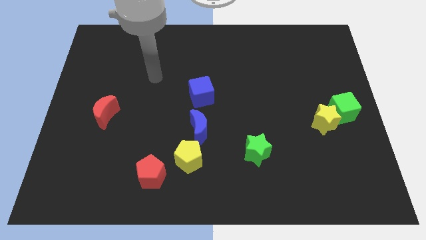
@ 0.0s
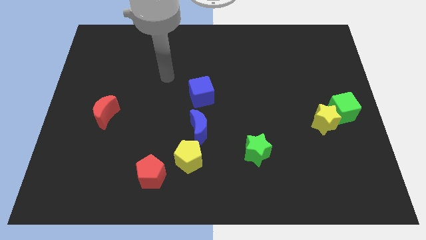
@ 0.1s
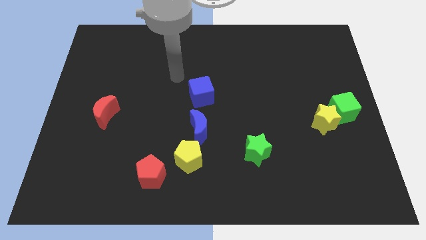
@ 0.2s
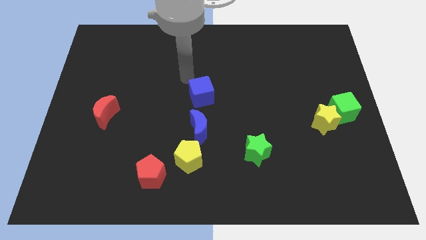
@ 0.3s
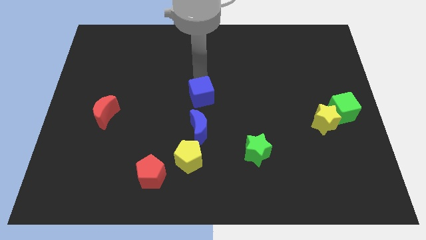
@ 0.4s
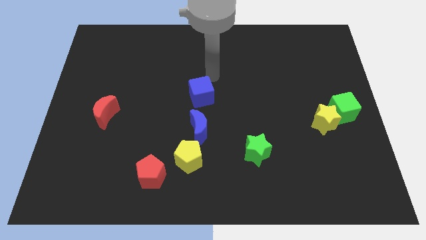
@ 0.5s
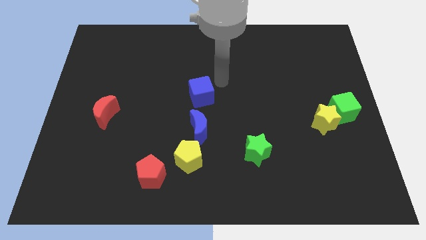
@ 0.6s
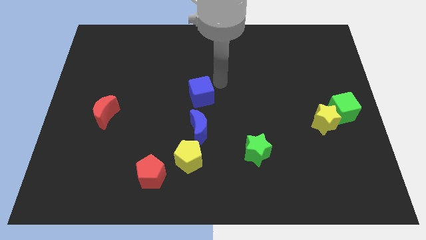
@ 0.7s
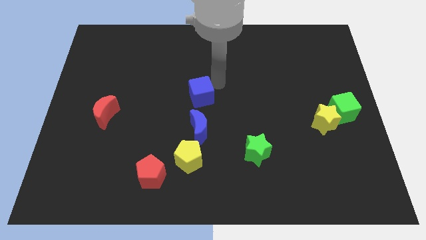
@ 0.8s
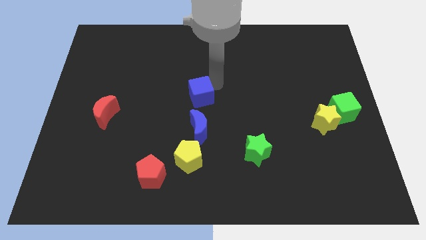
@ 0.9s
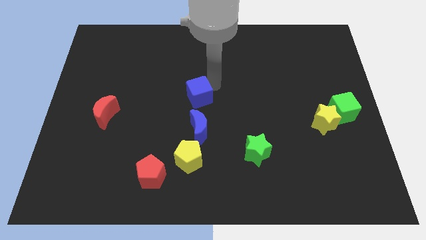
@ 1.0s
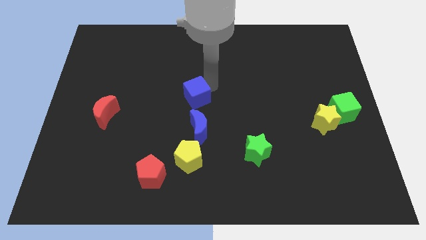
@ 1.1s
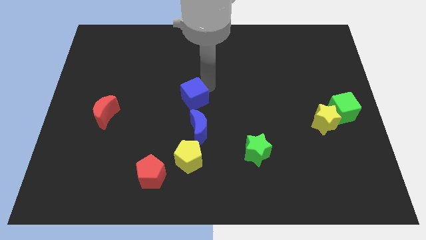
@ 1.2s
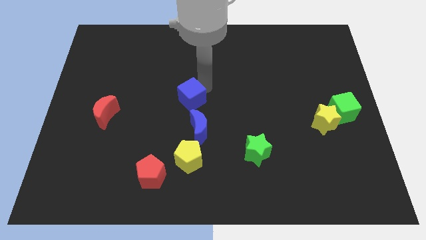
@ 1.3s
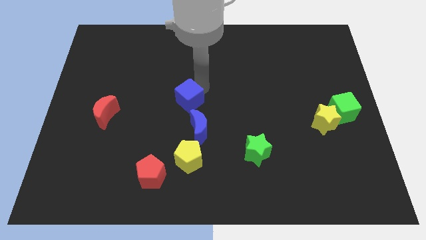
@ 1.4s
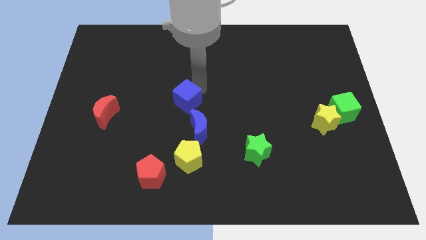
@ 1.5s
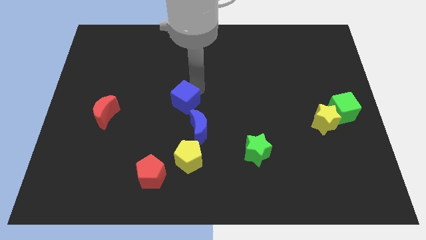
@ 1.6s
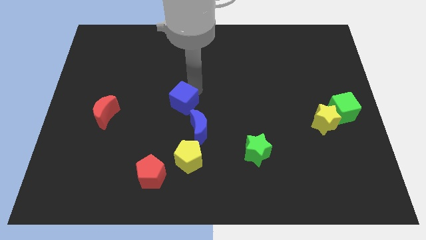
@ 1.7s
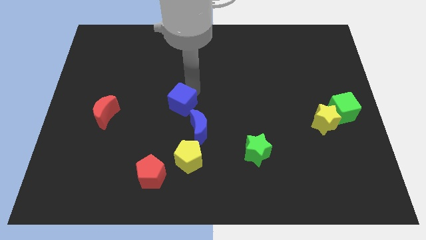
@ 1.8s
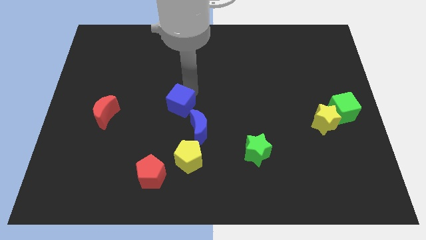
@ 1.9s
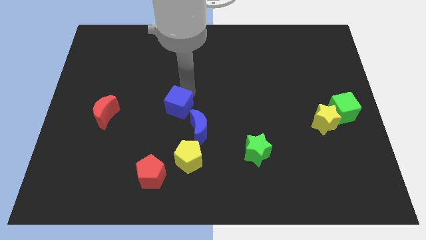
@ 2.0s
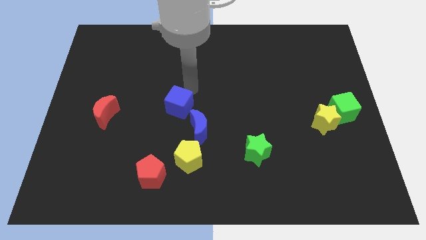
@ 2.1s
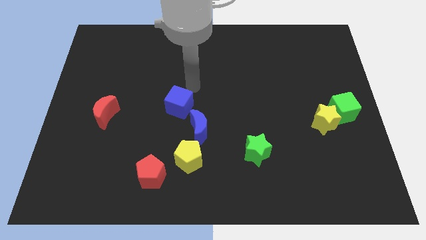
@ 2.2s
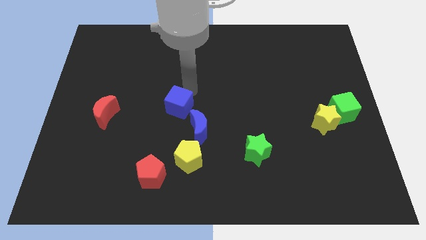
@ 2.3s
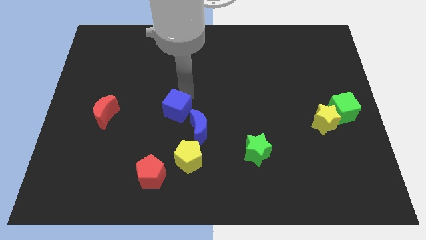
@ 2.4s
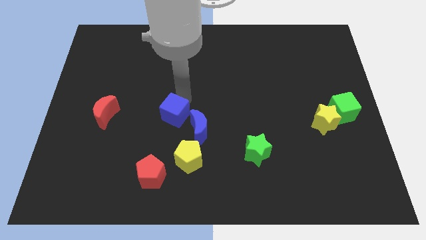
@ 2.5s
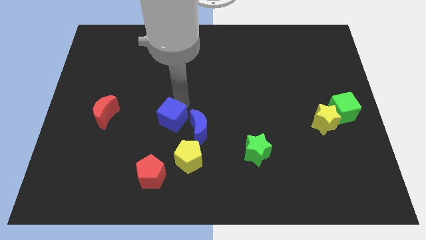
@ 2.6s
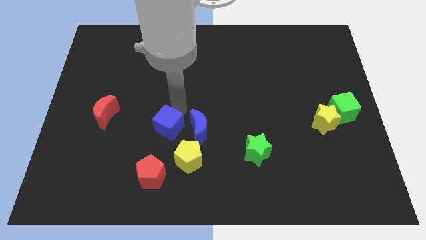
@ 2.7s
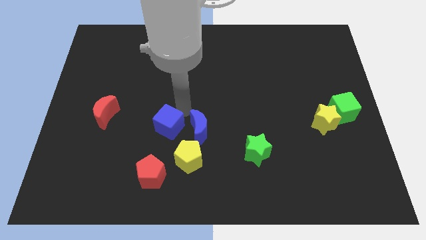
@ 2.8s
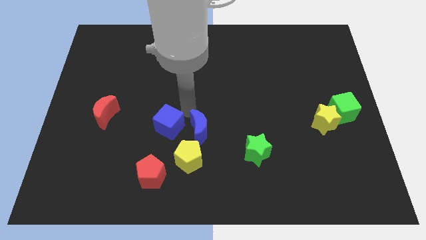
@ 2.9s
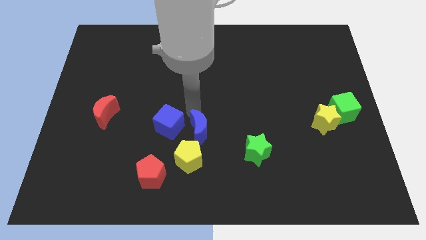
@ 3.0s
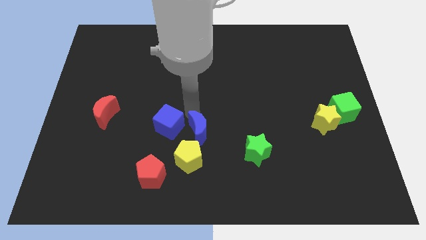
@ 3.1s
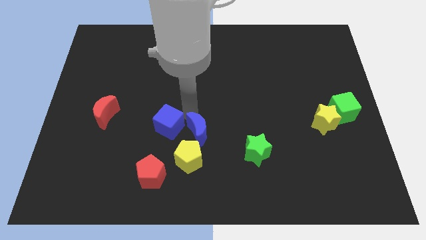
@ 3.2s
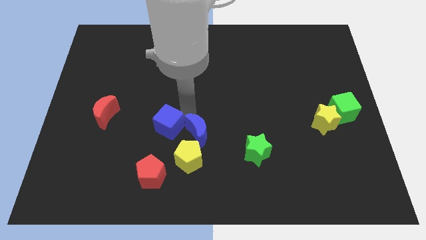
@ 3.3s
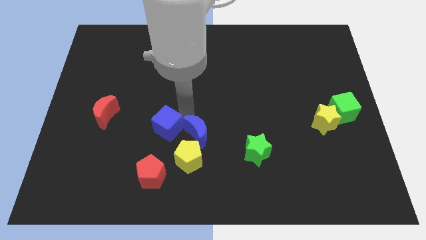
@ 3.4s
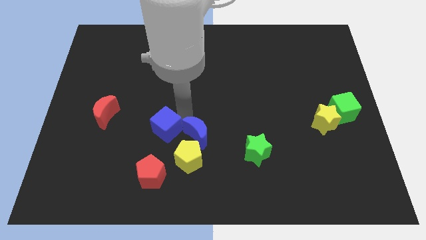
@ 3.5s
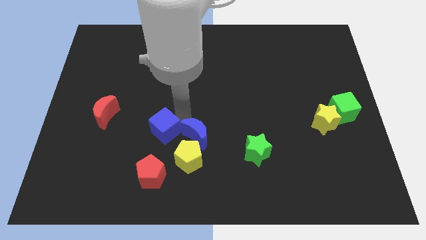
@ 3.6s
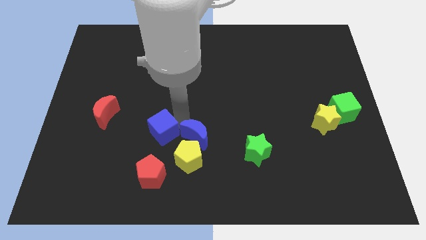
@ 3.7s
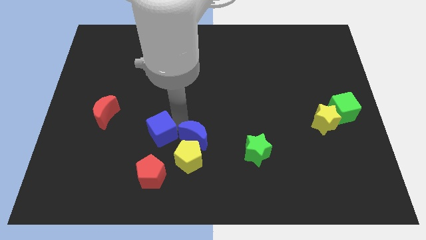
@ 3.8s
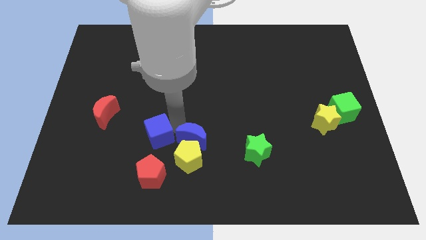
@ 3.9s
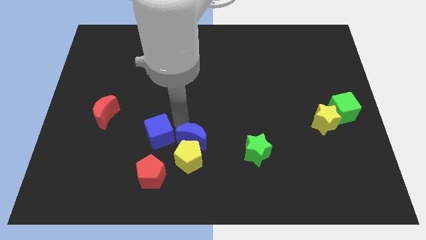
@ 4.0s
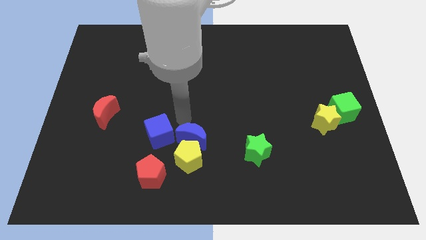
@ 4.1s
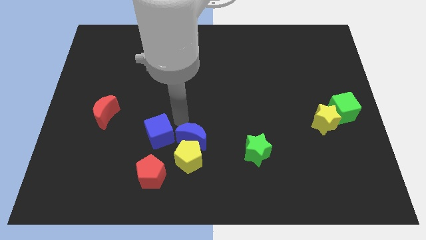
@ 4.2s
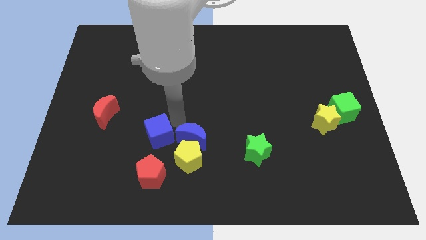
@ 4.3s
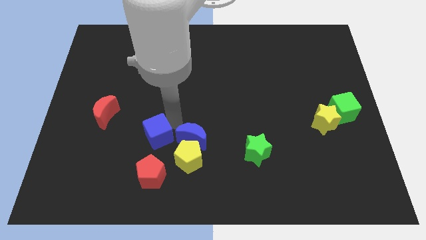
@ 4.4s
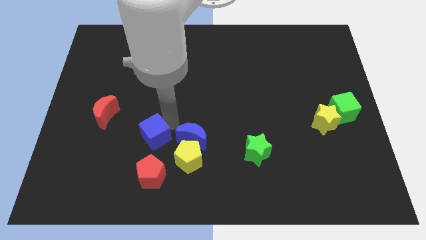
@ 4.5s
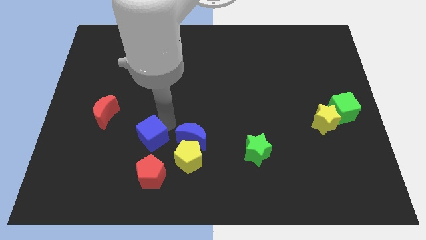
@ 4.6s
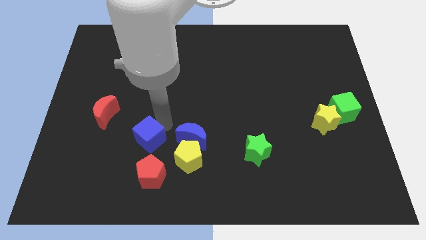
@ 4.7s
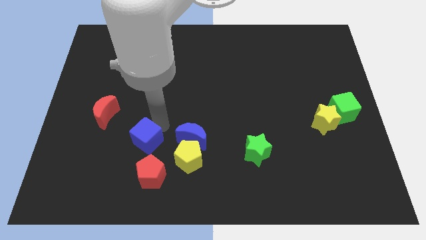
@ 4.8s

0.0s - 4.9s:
slide the blue cube diagonally up and to the left of the red pentagon

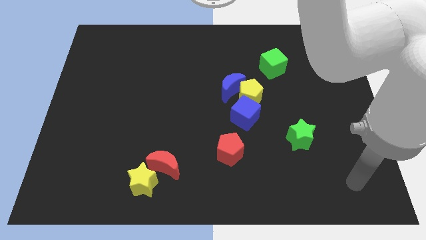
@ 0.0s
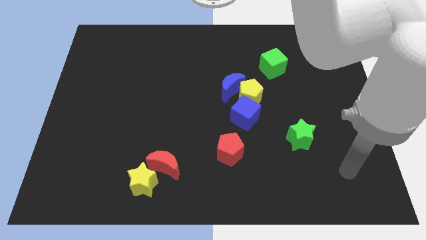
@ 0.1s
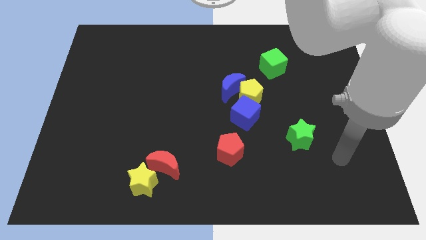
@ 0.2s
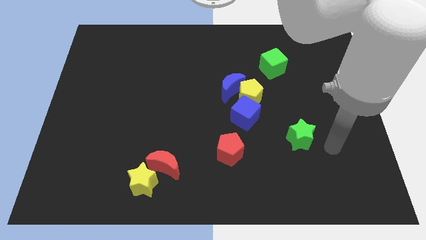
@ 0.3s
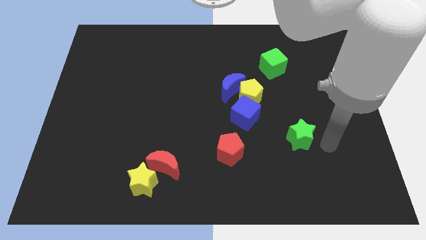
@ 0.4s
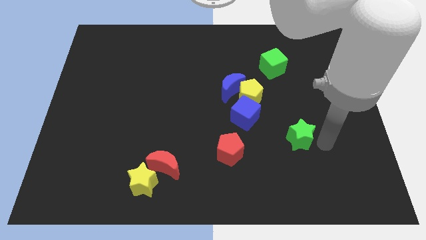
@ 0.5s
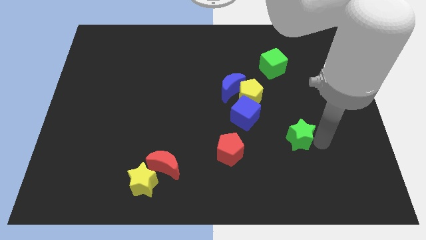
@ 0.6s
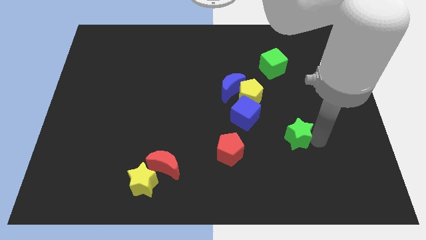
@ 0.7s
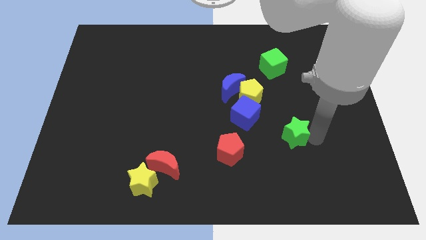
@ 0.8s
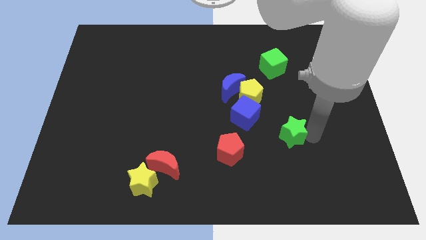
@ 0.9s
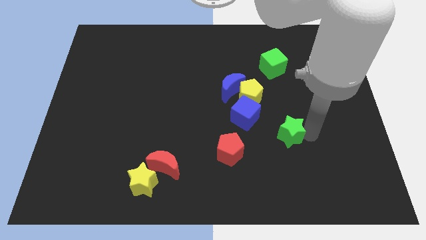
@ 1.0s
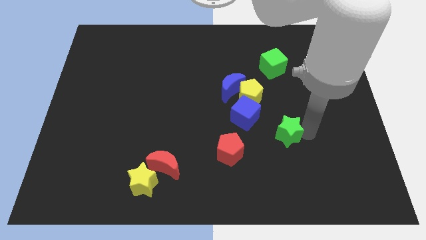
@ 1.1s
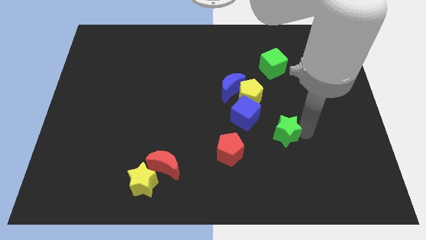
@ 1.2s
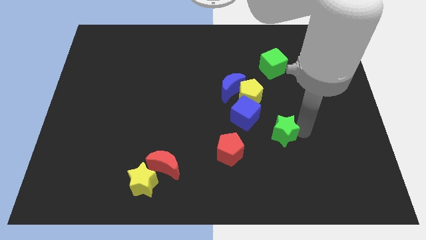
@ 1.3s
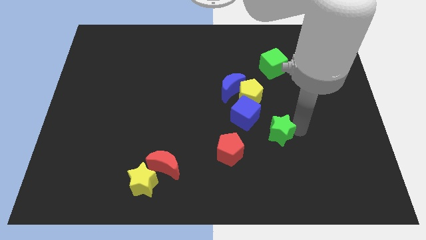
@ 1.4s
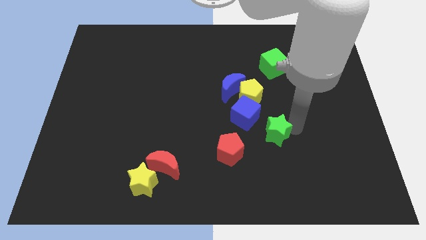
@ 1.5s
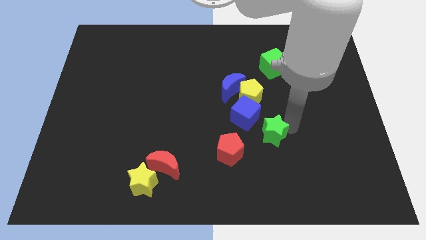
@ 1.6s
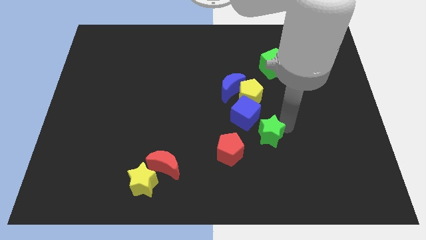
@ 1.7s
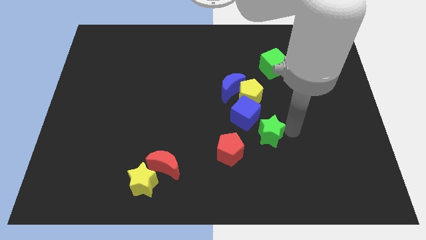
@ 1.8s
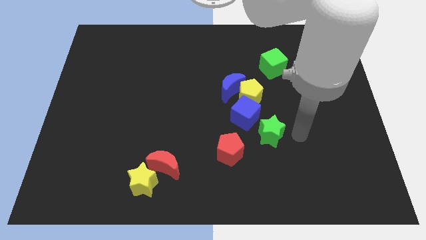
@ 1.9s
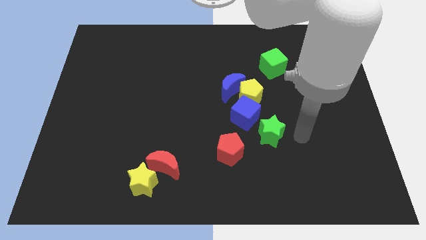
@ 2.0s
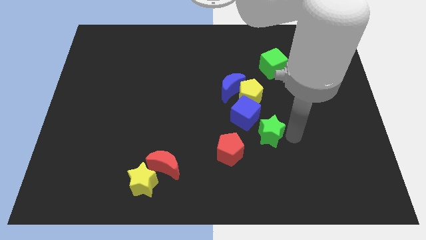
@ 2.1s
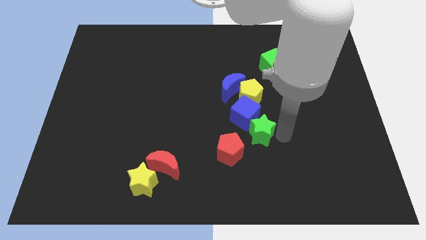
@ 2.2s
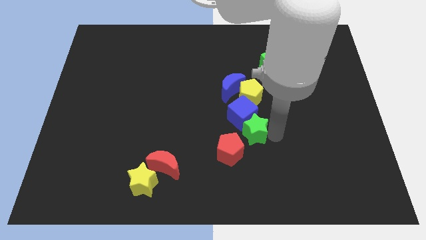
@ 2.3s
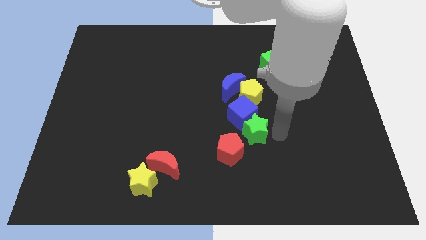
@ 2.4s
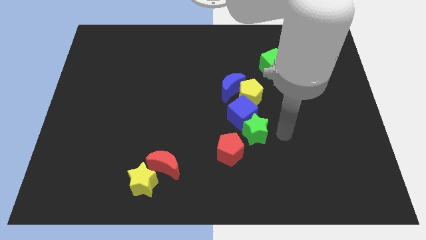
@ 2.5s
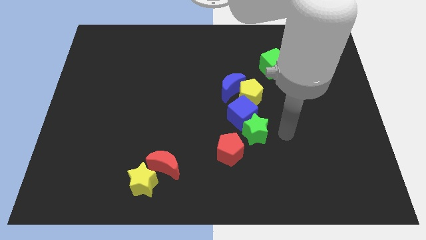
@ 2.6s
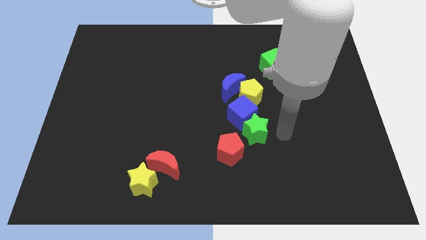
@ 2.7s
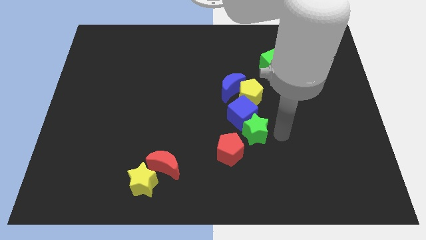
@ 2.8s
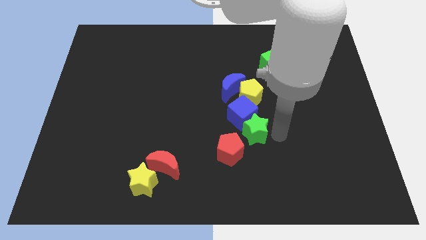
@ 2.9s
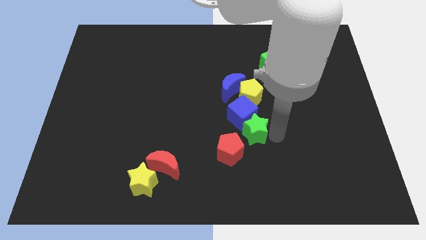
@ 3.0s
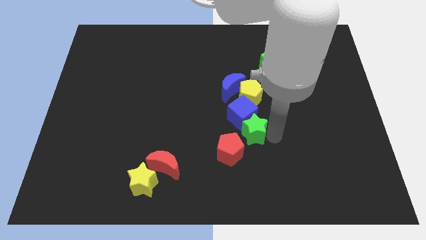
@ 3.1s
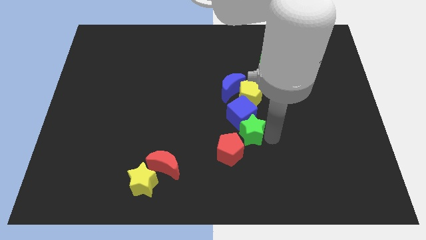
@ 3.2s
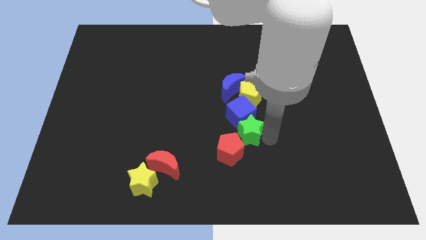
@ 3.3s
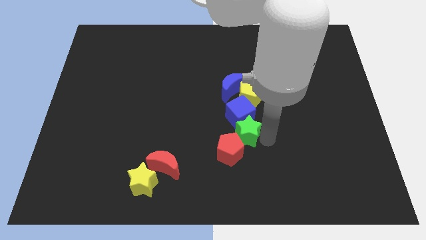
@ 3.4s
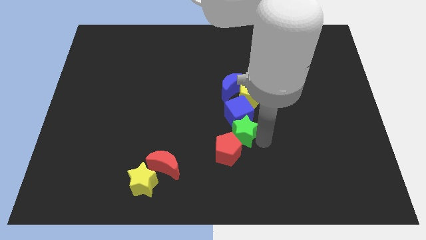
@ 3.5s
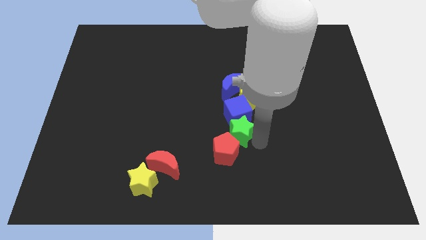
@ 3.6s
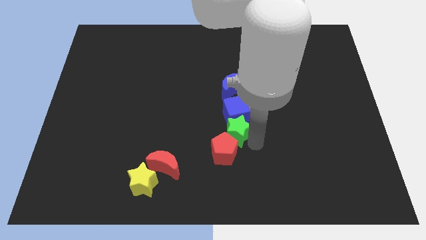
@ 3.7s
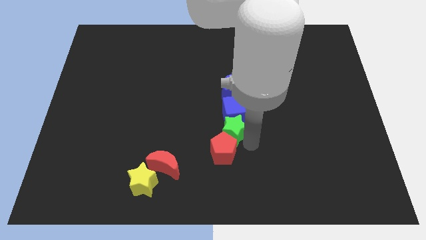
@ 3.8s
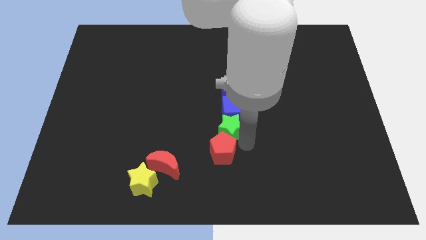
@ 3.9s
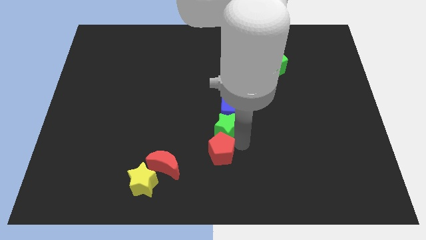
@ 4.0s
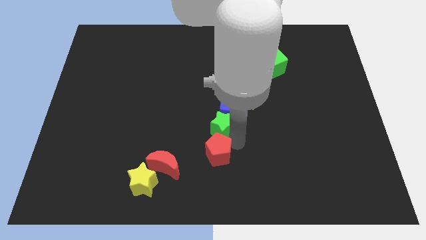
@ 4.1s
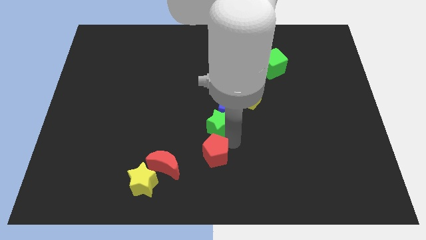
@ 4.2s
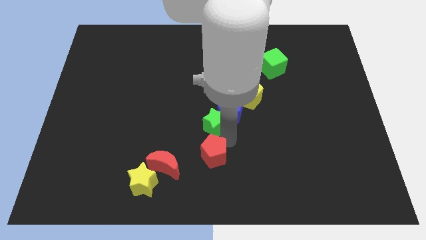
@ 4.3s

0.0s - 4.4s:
move the green star left of the blue cube
